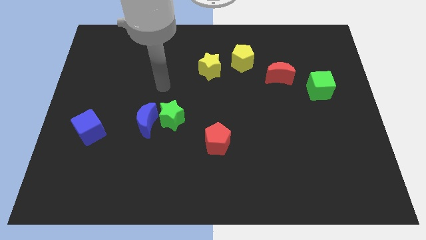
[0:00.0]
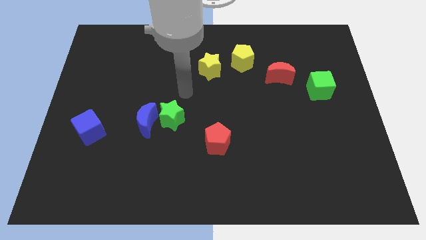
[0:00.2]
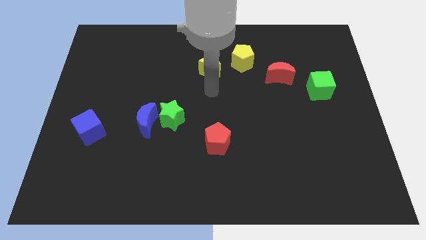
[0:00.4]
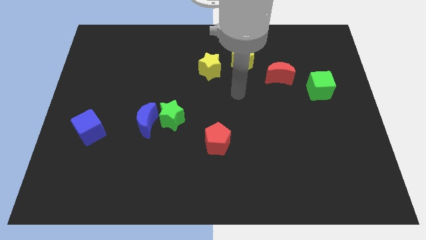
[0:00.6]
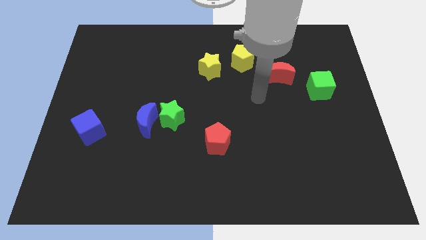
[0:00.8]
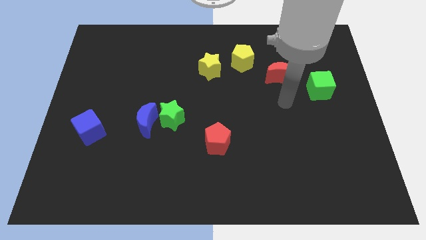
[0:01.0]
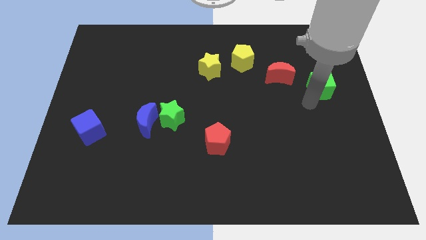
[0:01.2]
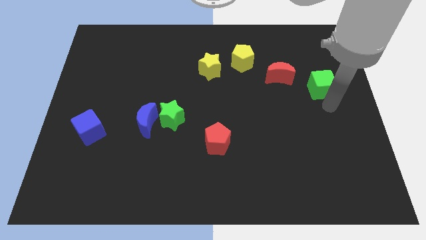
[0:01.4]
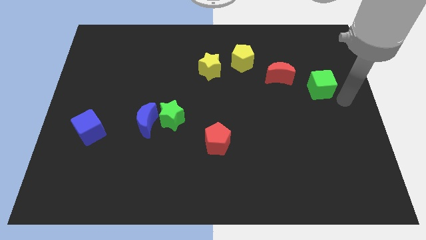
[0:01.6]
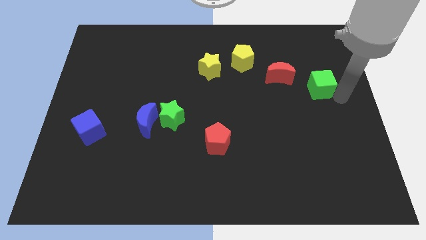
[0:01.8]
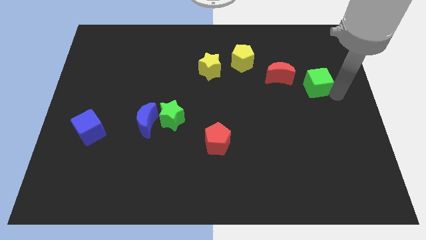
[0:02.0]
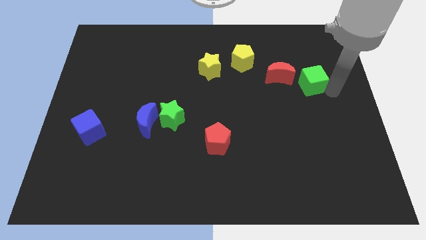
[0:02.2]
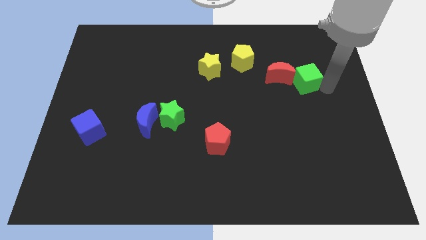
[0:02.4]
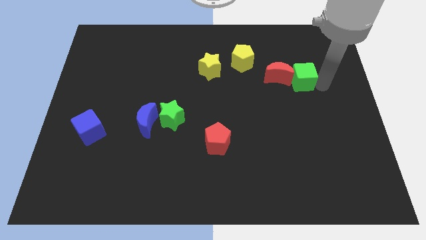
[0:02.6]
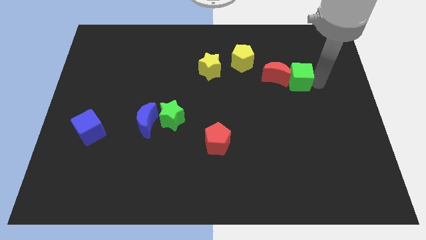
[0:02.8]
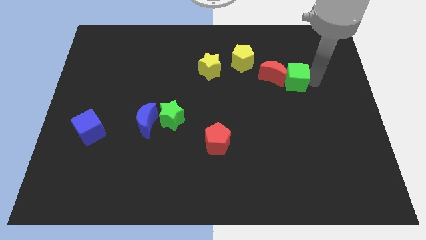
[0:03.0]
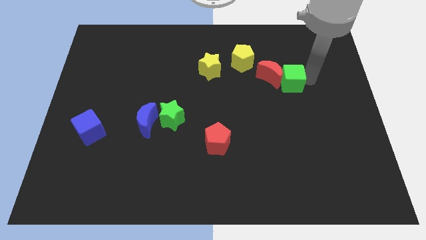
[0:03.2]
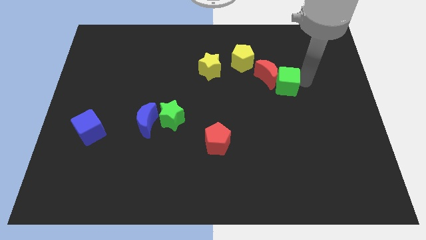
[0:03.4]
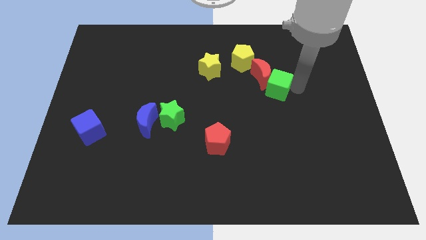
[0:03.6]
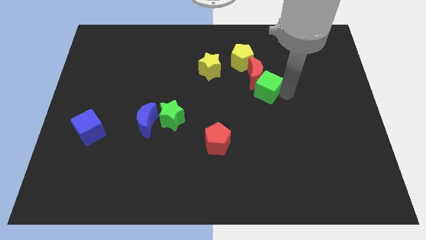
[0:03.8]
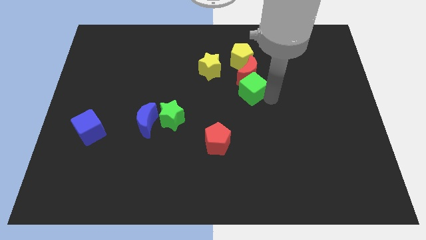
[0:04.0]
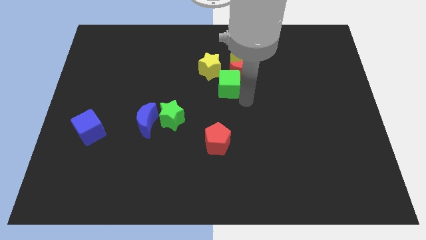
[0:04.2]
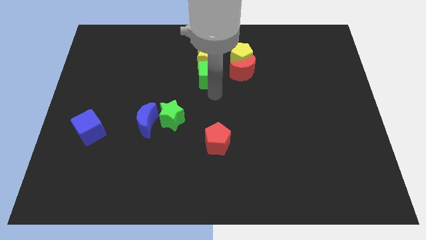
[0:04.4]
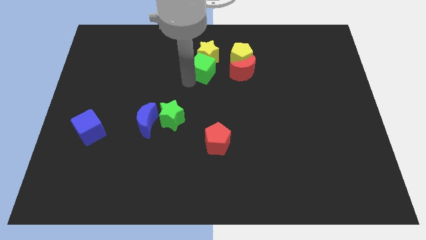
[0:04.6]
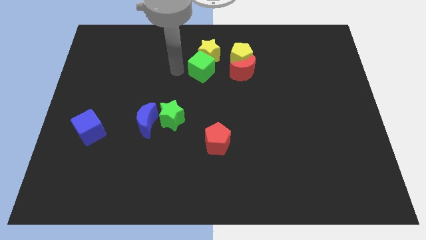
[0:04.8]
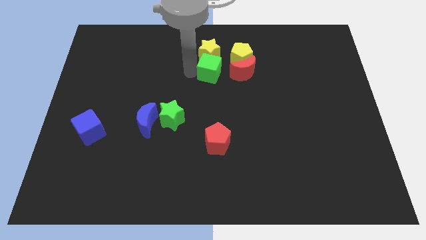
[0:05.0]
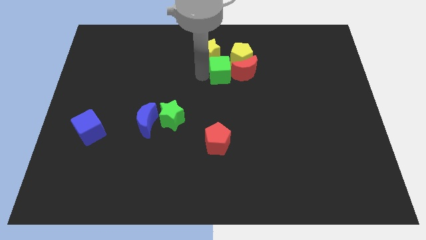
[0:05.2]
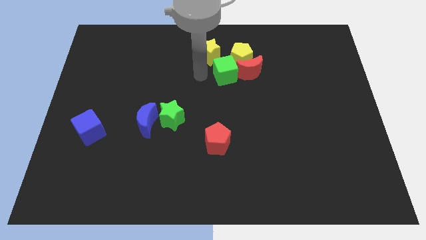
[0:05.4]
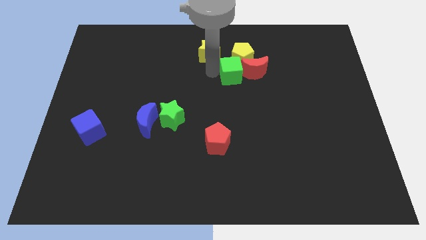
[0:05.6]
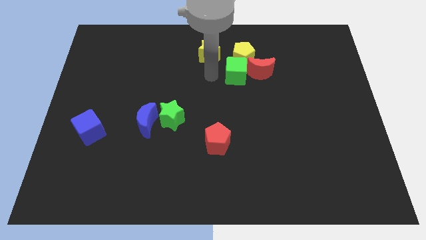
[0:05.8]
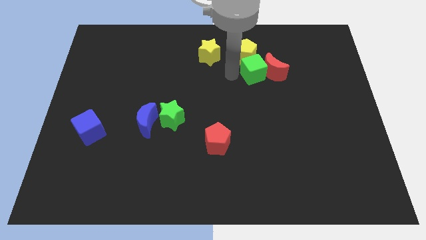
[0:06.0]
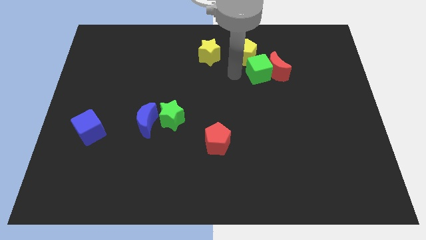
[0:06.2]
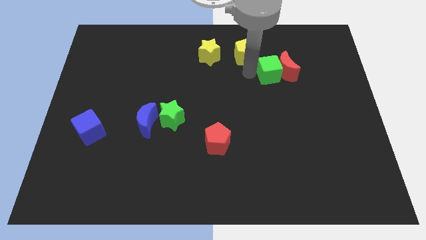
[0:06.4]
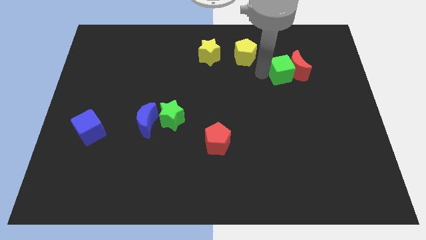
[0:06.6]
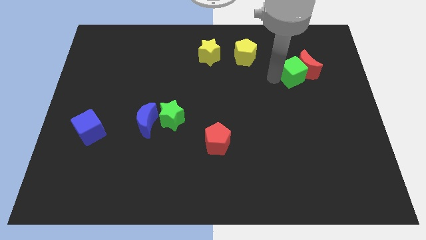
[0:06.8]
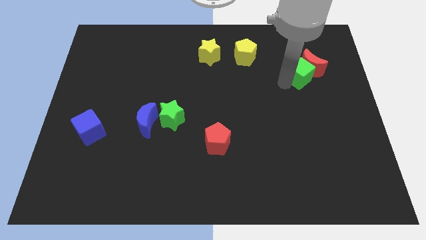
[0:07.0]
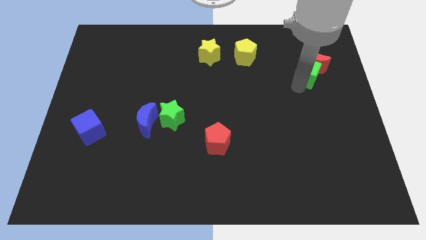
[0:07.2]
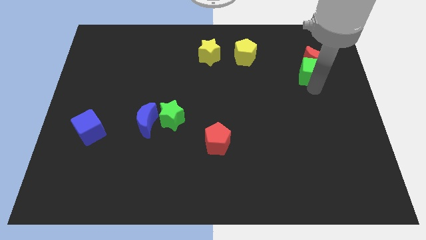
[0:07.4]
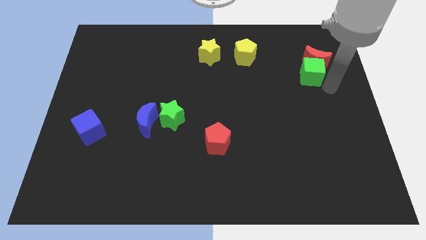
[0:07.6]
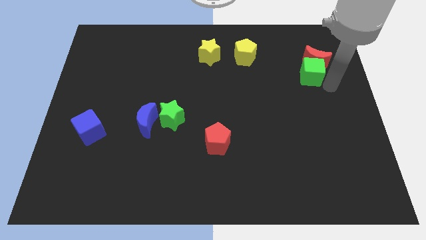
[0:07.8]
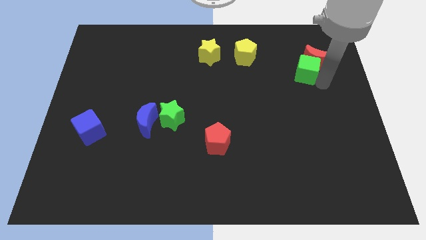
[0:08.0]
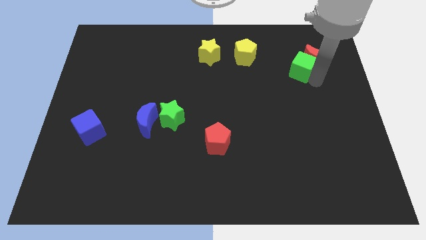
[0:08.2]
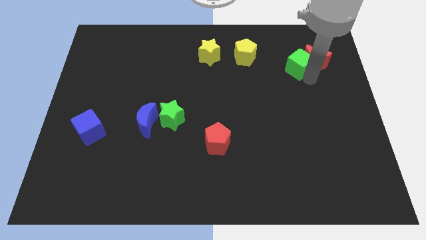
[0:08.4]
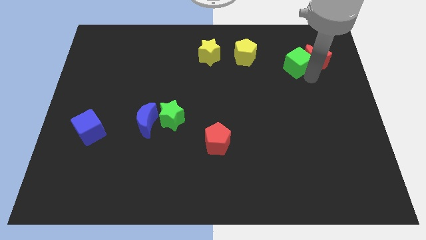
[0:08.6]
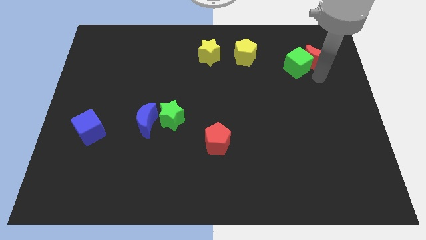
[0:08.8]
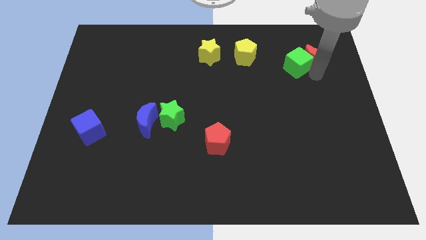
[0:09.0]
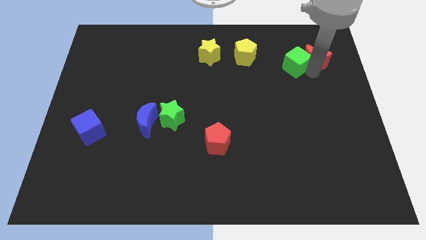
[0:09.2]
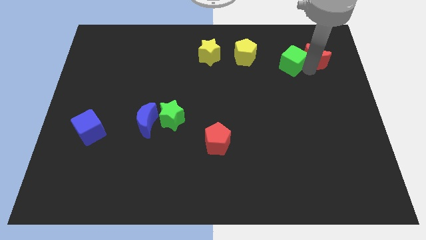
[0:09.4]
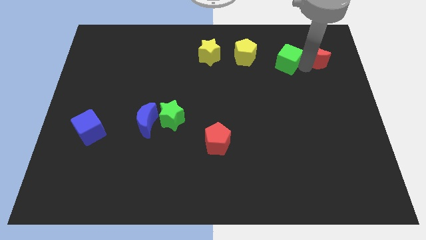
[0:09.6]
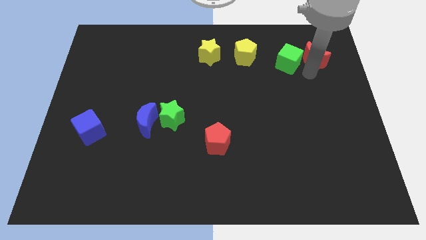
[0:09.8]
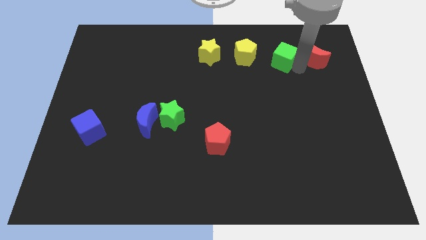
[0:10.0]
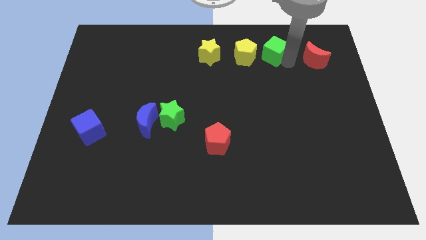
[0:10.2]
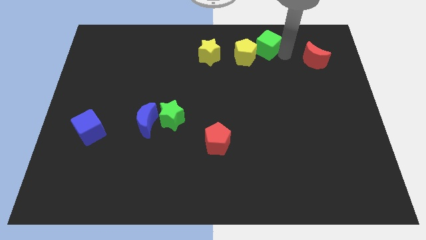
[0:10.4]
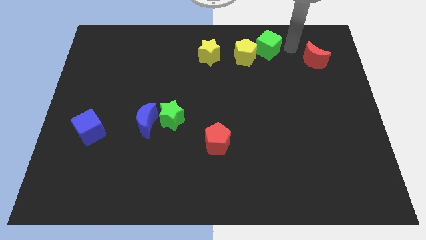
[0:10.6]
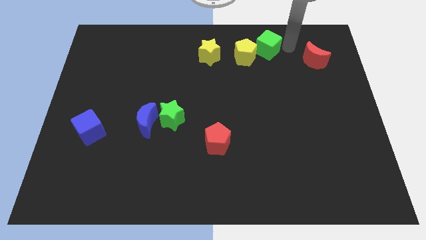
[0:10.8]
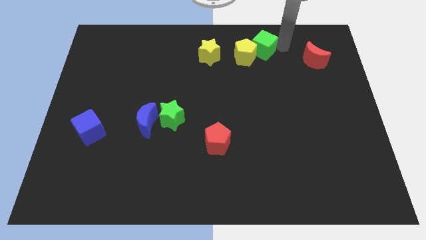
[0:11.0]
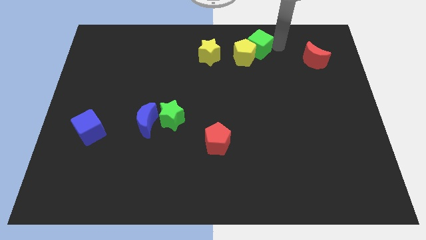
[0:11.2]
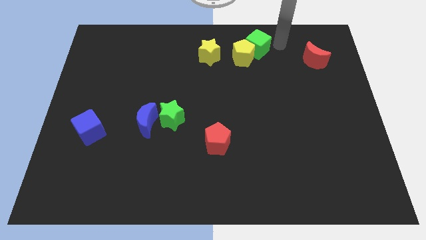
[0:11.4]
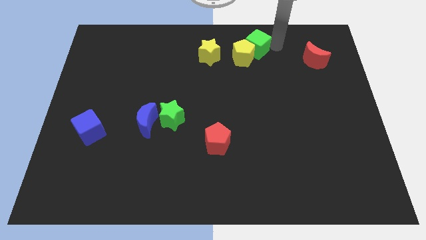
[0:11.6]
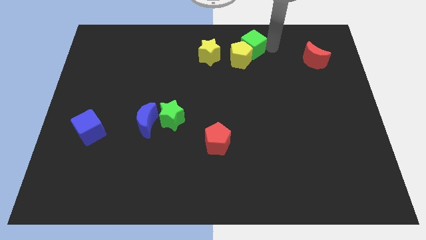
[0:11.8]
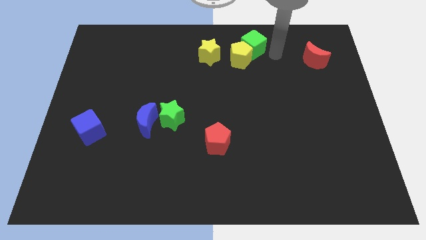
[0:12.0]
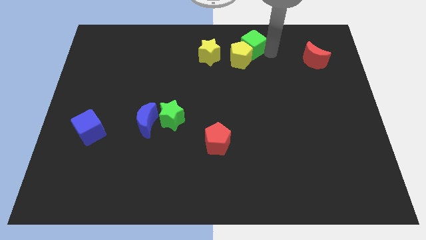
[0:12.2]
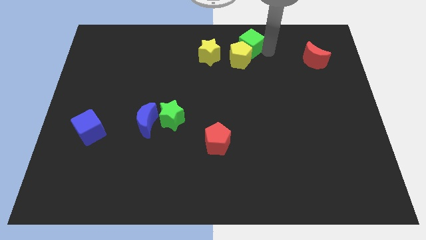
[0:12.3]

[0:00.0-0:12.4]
move the green cube to the towards your base

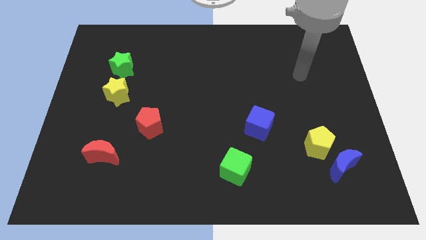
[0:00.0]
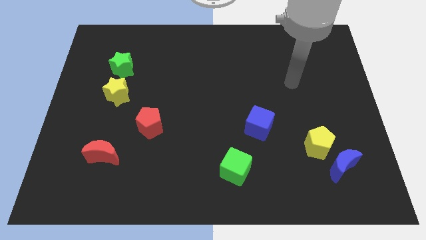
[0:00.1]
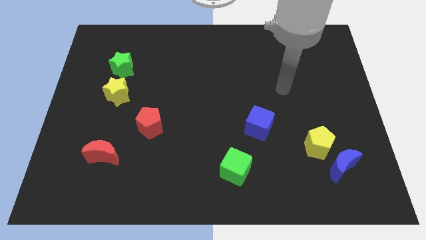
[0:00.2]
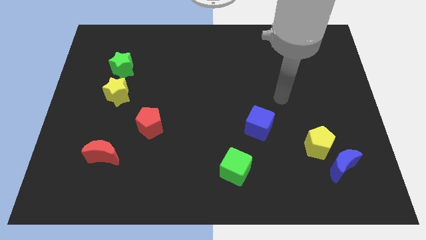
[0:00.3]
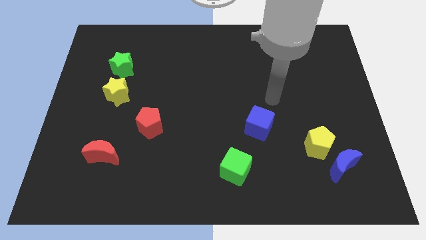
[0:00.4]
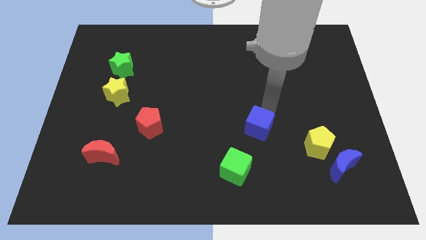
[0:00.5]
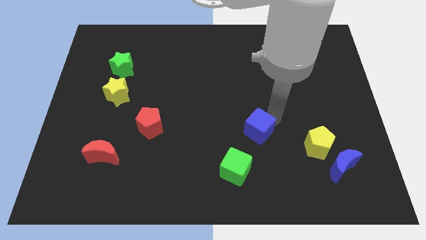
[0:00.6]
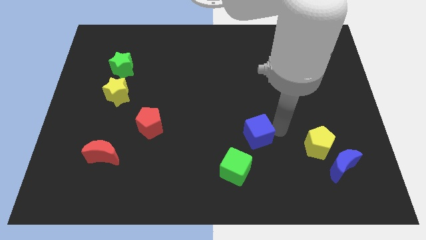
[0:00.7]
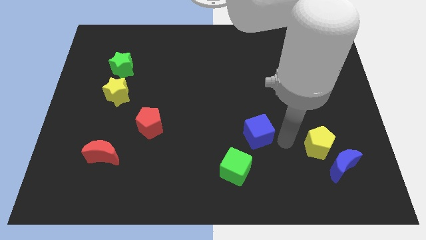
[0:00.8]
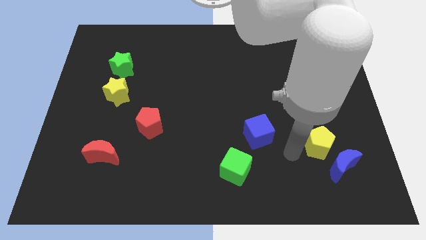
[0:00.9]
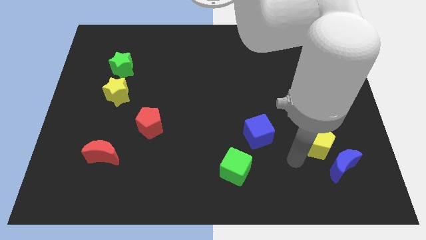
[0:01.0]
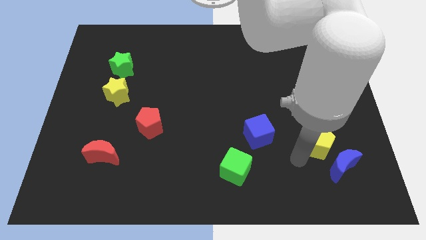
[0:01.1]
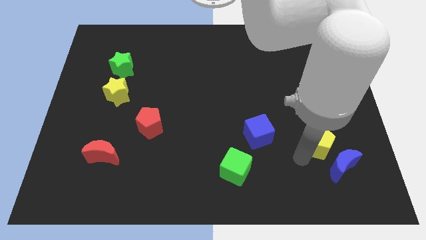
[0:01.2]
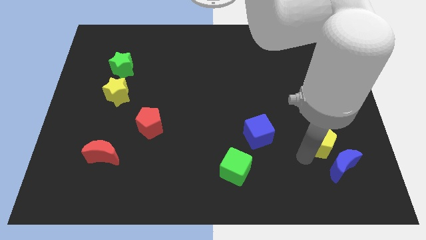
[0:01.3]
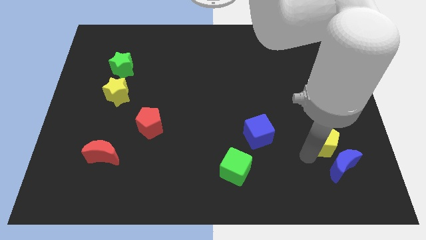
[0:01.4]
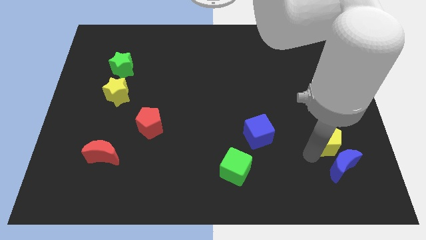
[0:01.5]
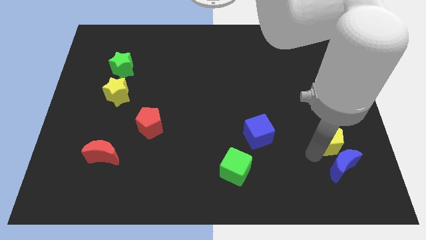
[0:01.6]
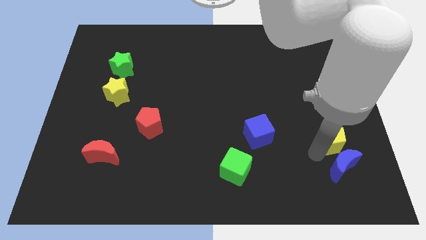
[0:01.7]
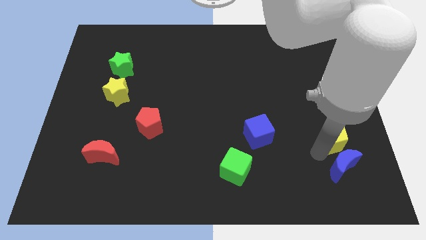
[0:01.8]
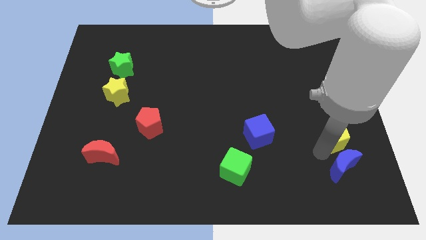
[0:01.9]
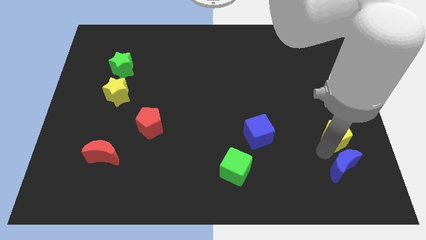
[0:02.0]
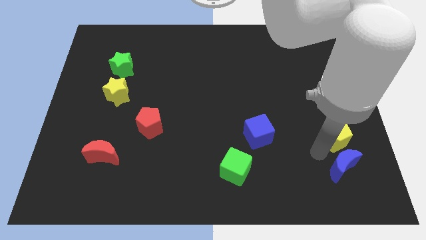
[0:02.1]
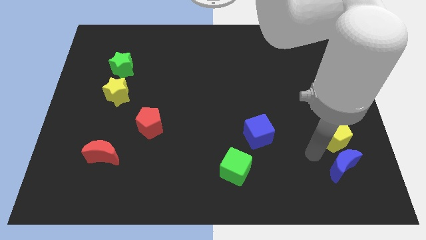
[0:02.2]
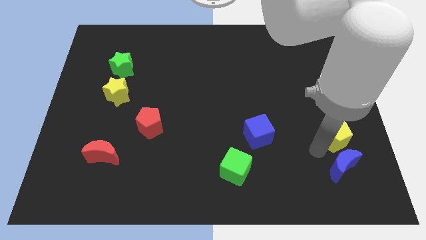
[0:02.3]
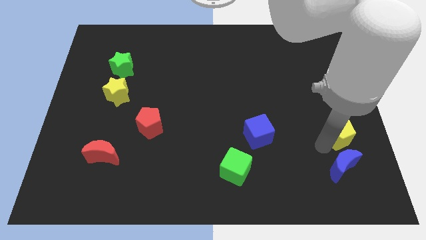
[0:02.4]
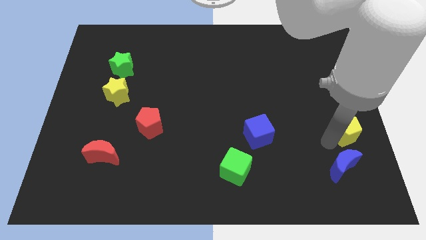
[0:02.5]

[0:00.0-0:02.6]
put the yellow pentagon to the right side of the board
